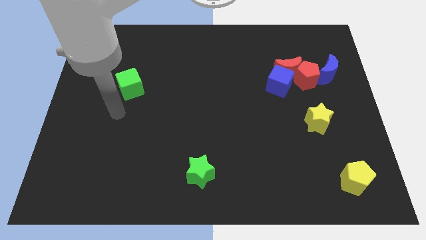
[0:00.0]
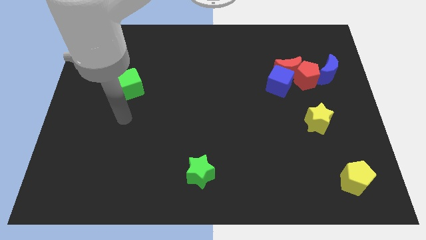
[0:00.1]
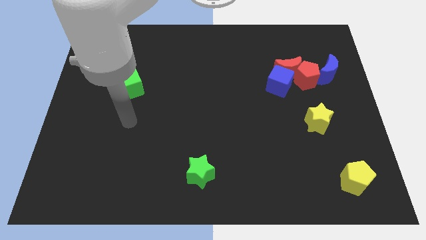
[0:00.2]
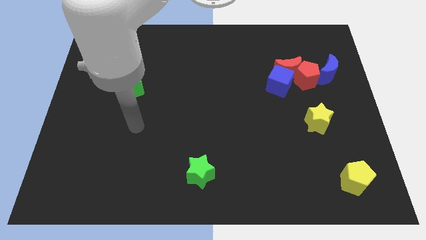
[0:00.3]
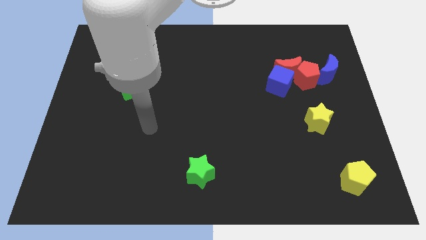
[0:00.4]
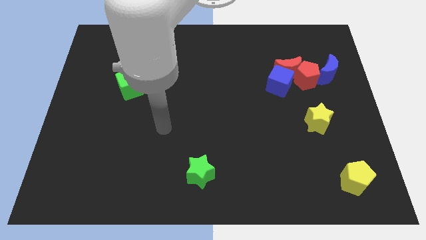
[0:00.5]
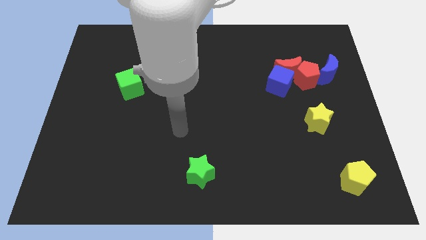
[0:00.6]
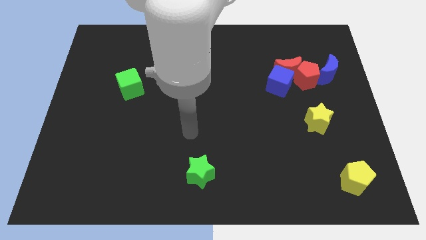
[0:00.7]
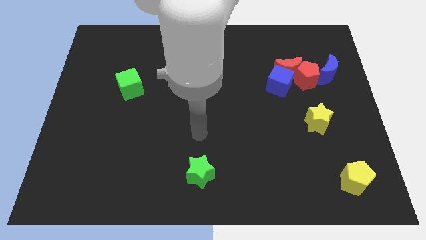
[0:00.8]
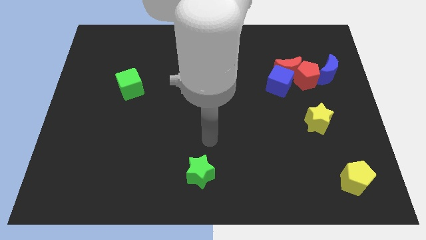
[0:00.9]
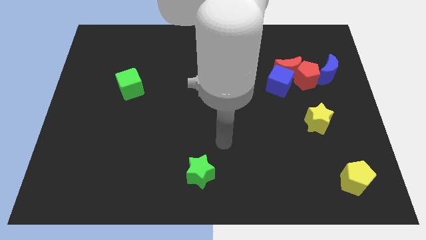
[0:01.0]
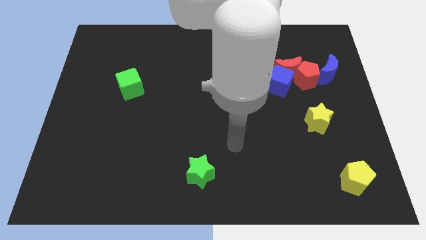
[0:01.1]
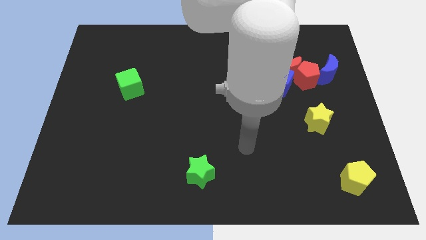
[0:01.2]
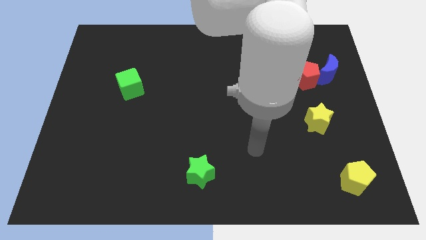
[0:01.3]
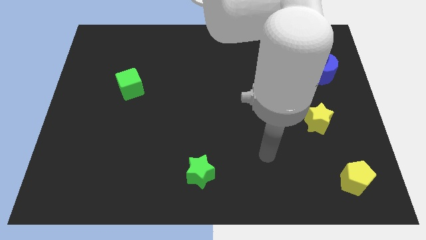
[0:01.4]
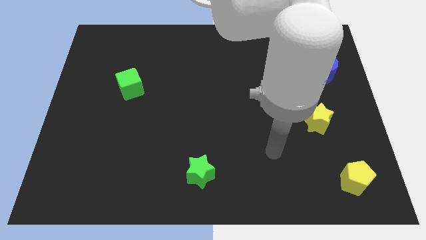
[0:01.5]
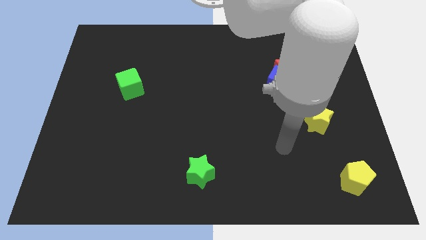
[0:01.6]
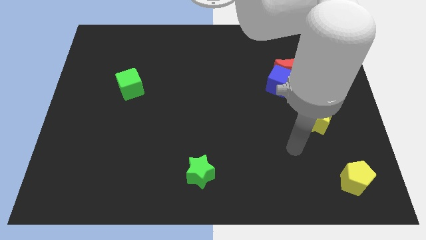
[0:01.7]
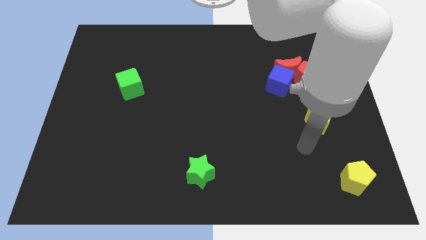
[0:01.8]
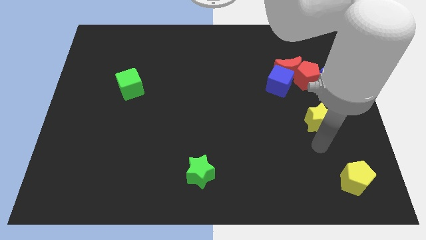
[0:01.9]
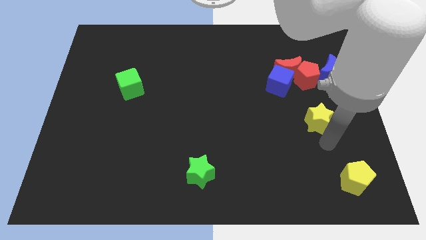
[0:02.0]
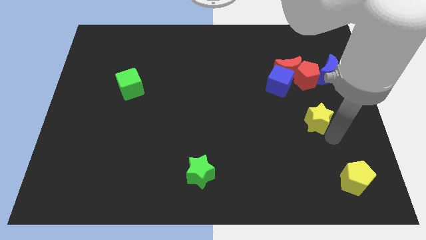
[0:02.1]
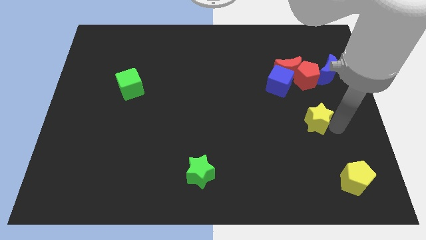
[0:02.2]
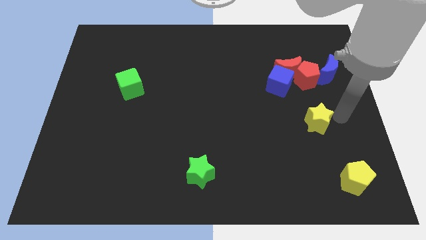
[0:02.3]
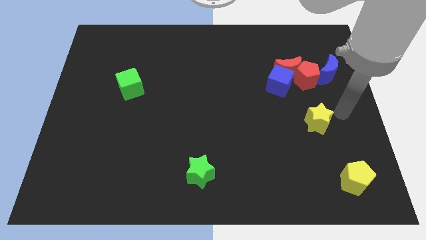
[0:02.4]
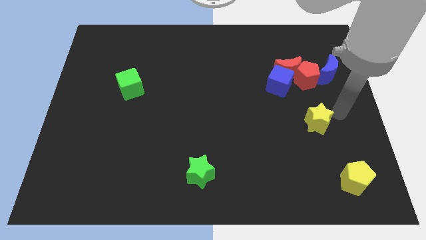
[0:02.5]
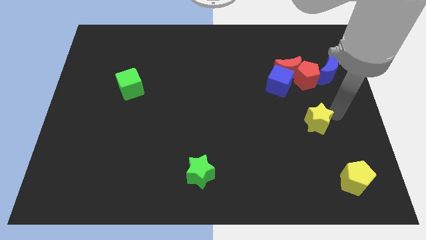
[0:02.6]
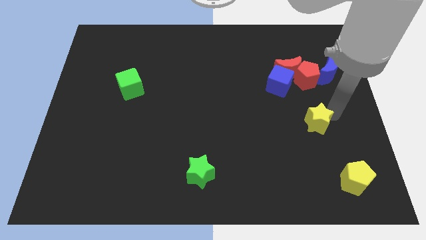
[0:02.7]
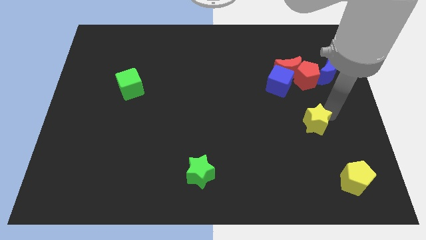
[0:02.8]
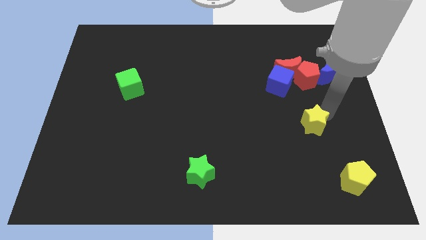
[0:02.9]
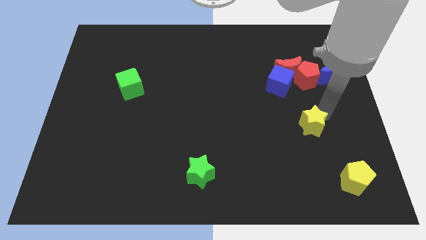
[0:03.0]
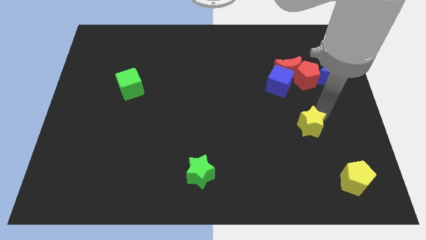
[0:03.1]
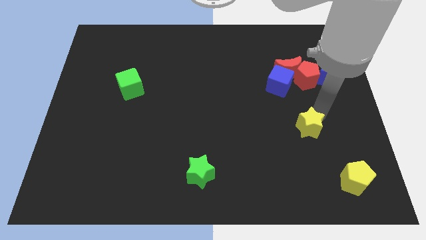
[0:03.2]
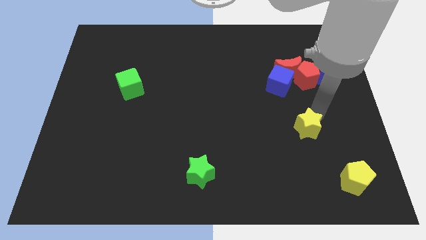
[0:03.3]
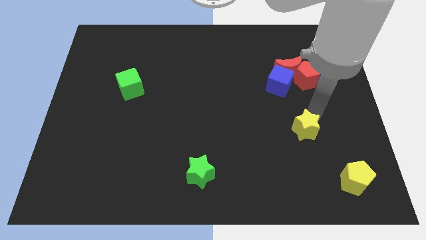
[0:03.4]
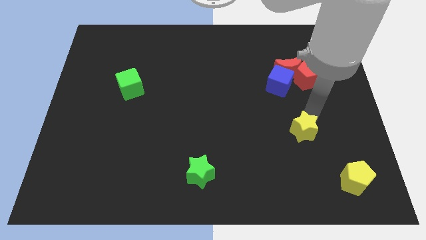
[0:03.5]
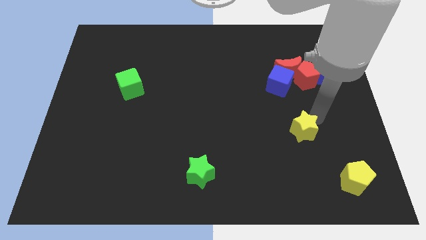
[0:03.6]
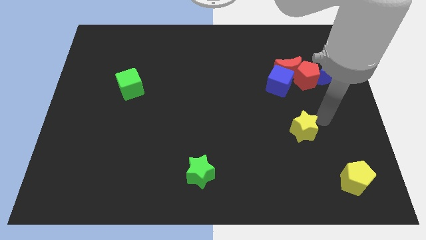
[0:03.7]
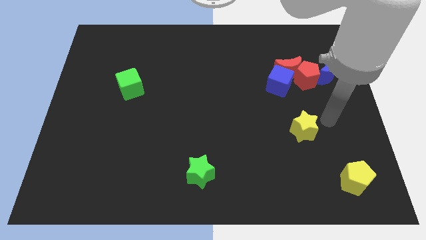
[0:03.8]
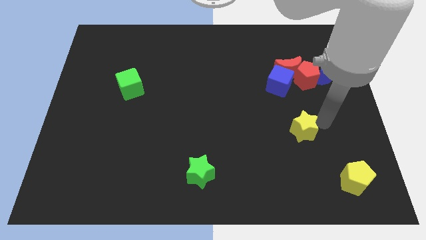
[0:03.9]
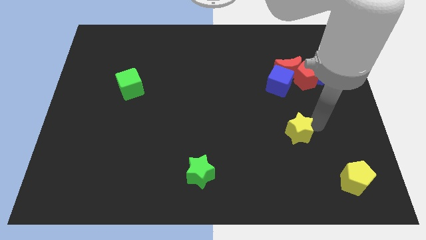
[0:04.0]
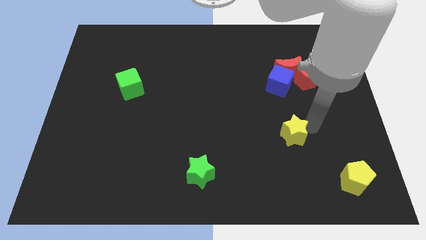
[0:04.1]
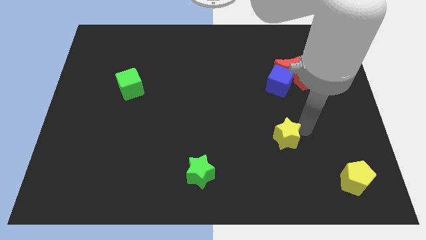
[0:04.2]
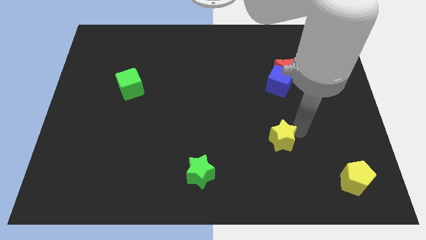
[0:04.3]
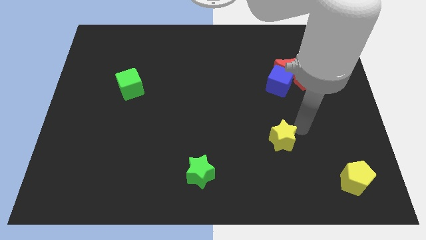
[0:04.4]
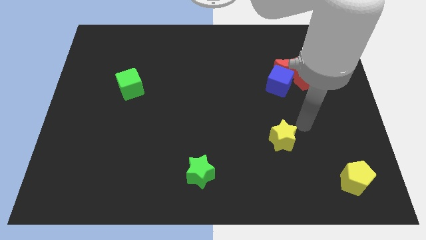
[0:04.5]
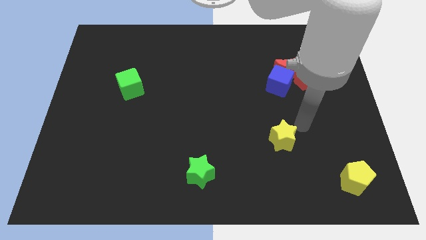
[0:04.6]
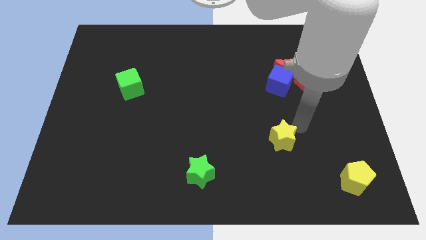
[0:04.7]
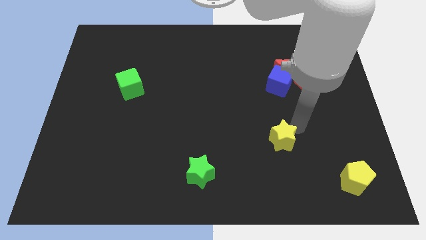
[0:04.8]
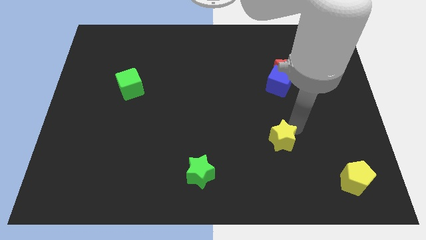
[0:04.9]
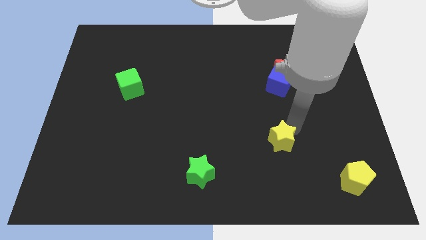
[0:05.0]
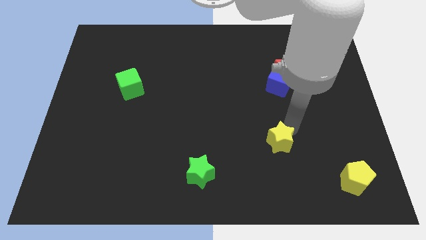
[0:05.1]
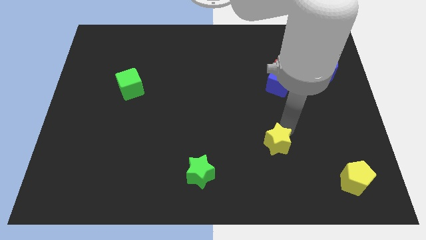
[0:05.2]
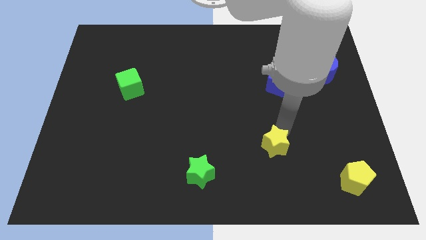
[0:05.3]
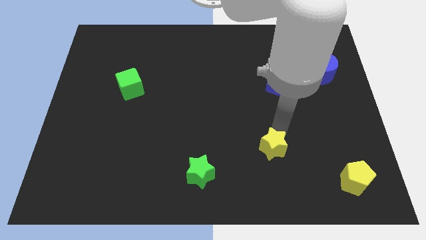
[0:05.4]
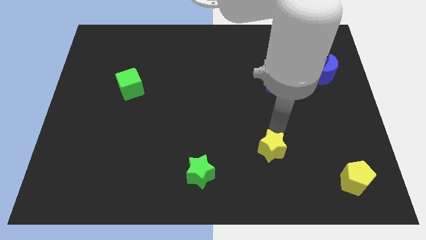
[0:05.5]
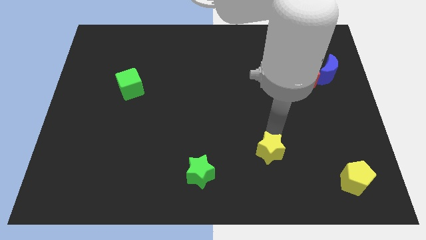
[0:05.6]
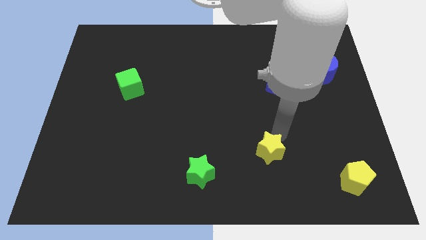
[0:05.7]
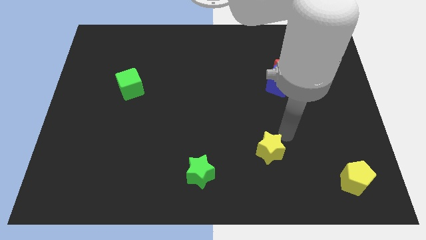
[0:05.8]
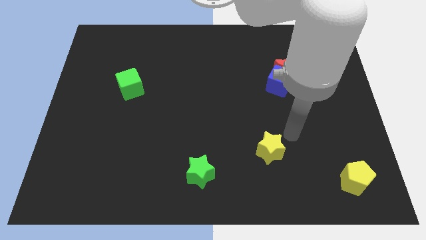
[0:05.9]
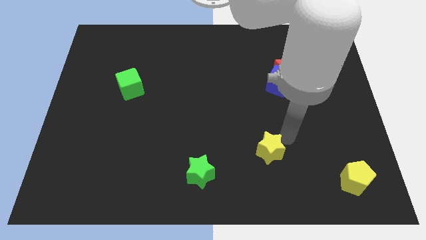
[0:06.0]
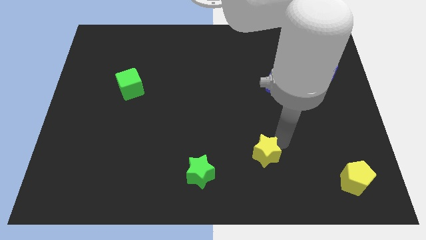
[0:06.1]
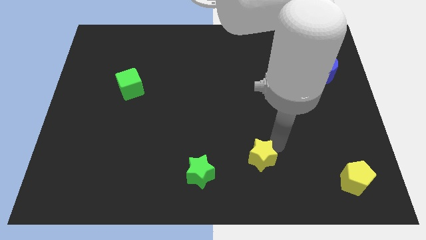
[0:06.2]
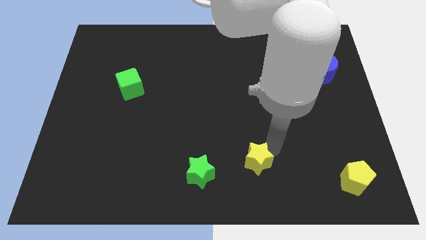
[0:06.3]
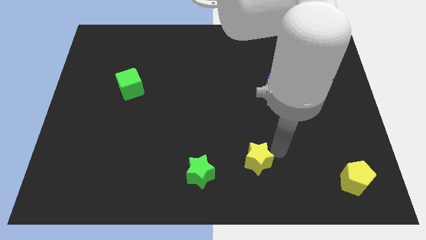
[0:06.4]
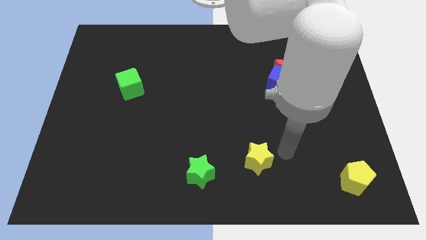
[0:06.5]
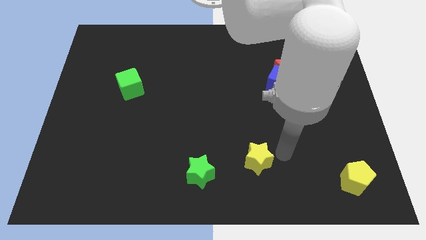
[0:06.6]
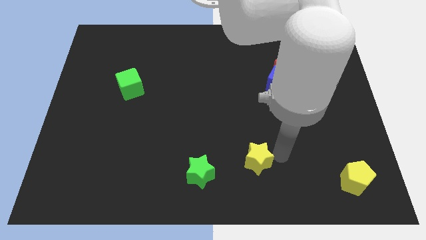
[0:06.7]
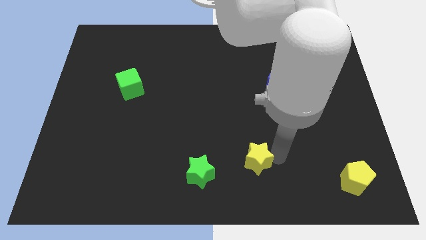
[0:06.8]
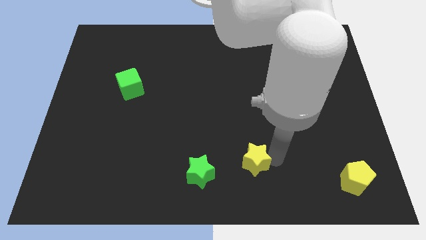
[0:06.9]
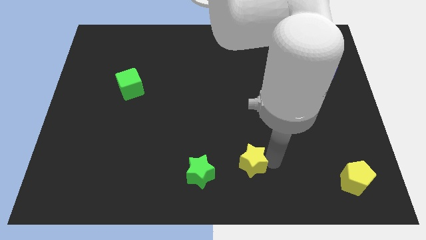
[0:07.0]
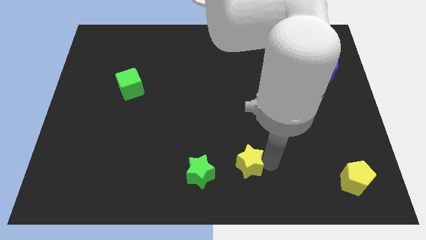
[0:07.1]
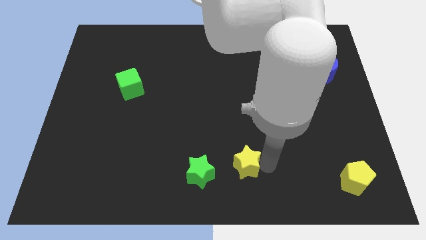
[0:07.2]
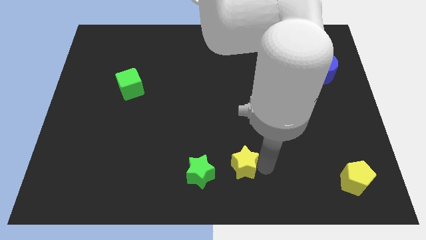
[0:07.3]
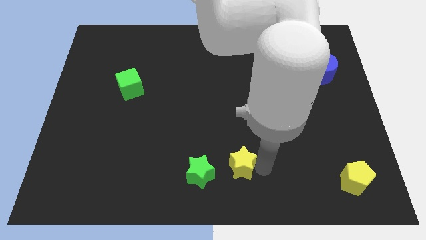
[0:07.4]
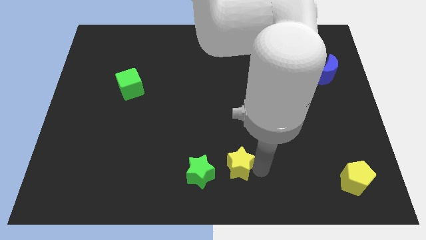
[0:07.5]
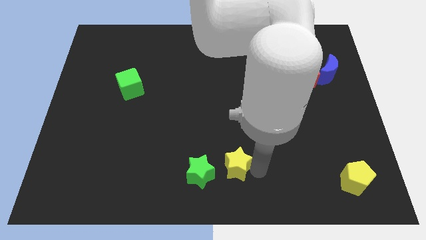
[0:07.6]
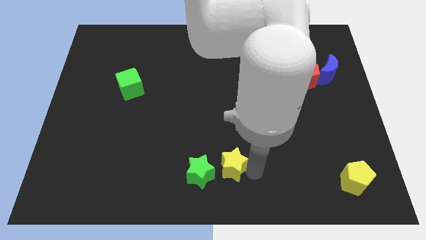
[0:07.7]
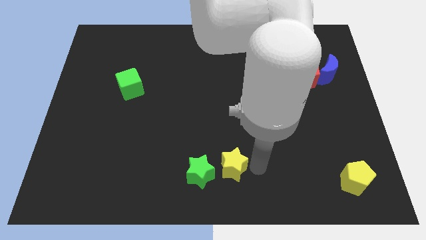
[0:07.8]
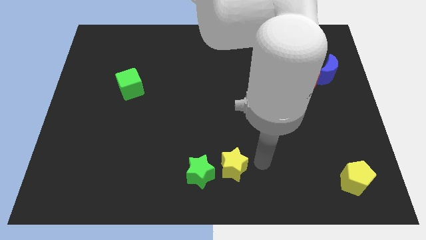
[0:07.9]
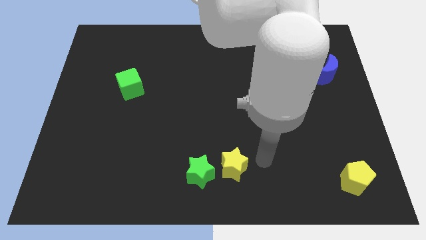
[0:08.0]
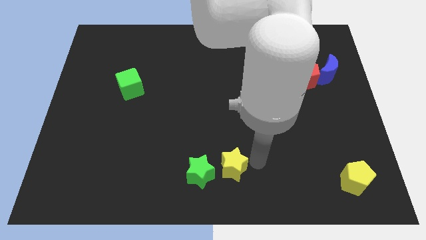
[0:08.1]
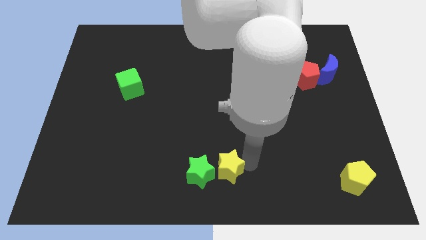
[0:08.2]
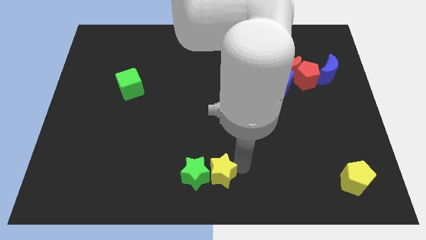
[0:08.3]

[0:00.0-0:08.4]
slide the yellow star towards the green star
